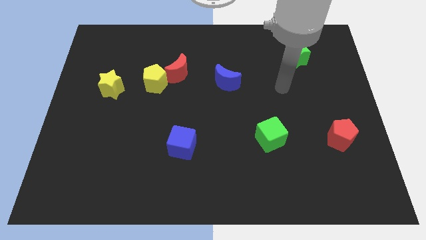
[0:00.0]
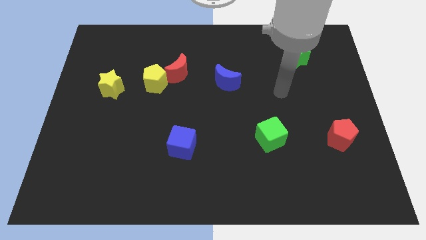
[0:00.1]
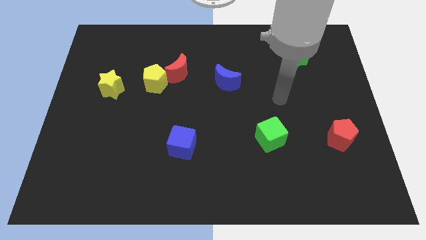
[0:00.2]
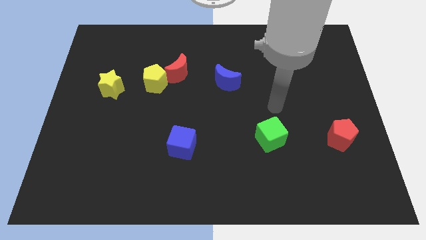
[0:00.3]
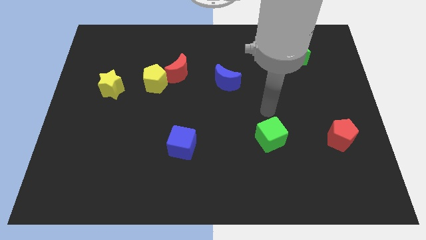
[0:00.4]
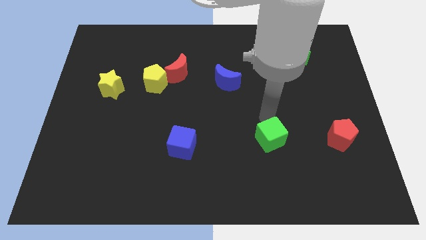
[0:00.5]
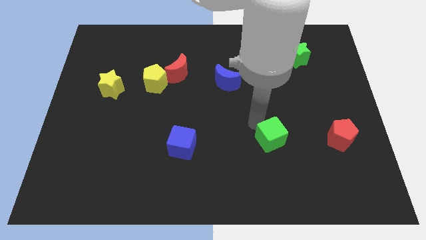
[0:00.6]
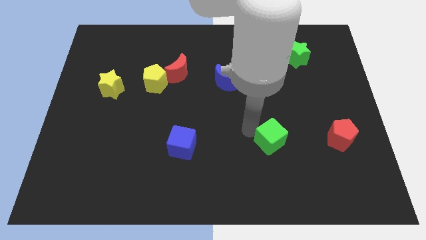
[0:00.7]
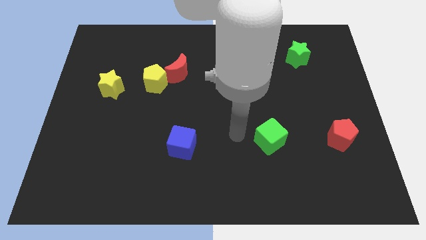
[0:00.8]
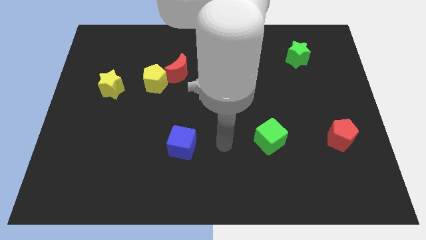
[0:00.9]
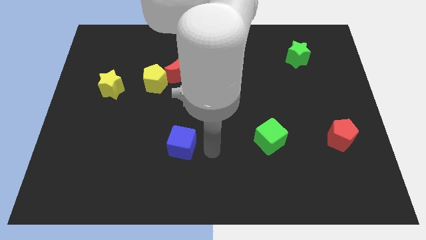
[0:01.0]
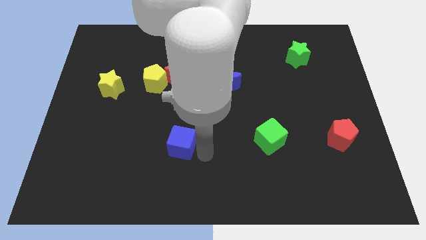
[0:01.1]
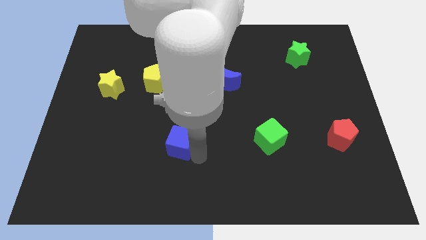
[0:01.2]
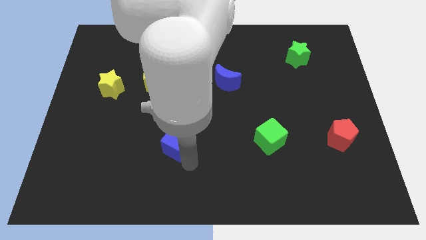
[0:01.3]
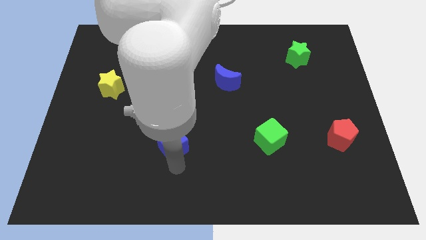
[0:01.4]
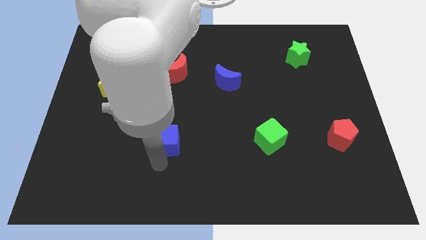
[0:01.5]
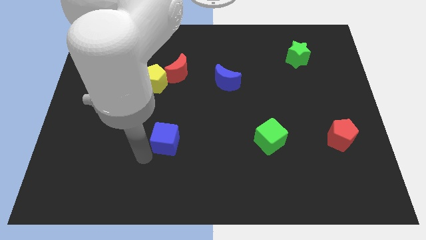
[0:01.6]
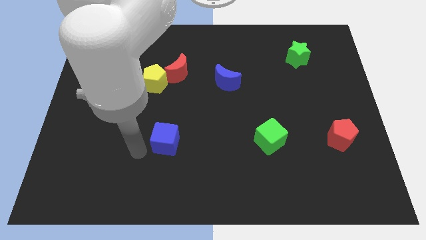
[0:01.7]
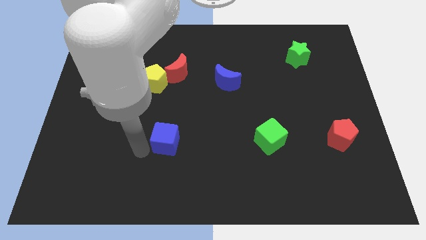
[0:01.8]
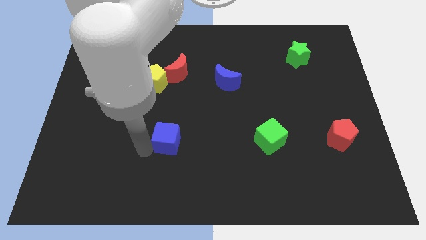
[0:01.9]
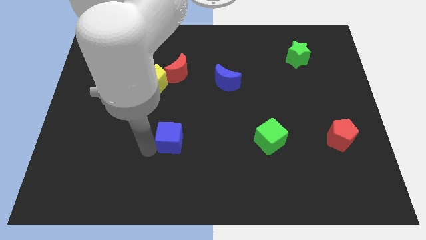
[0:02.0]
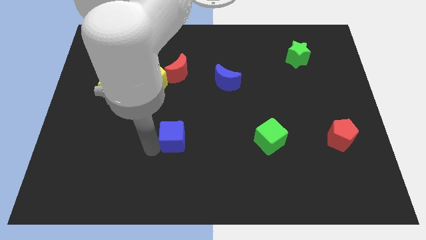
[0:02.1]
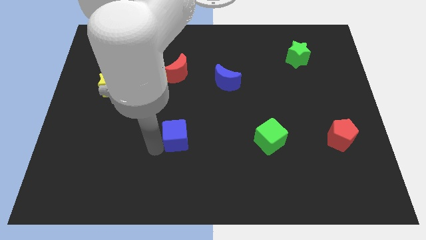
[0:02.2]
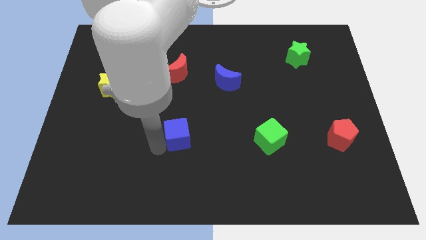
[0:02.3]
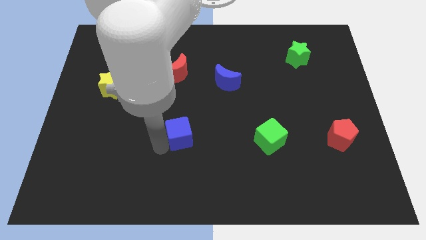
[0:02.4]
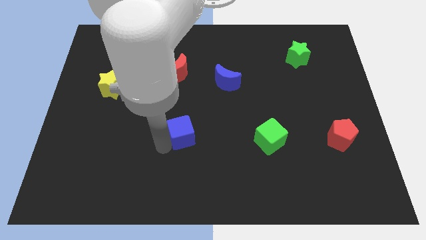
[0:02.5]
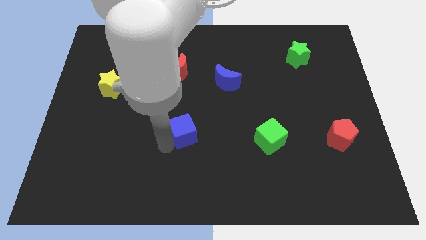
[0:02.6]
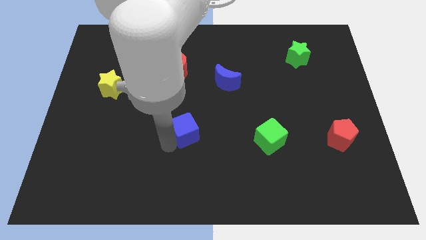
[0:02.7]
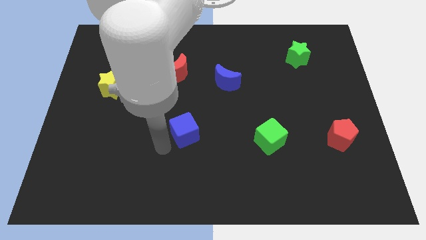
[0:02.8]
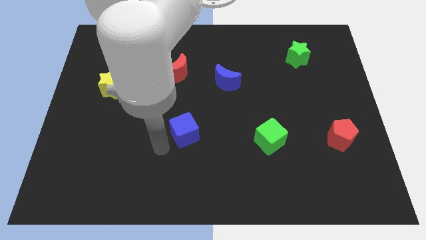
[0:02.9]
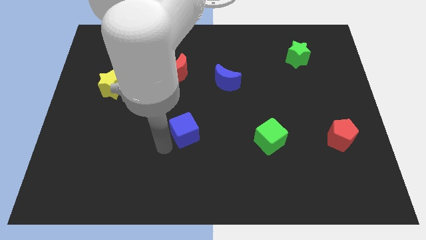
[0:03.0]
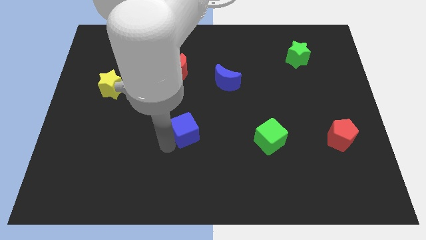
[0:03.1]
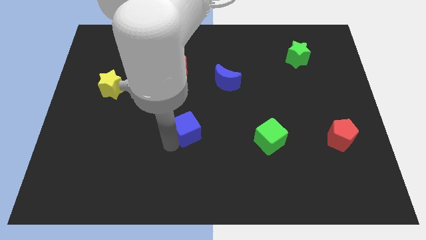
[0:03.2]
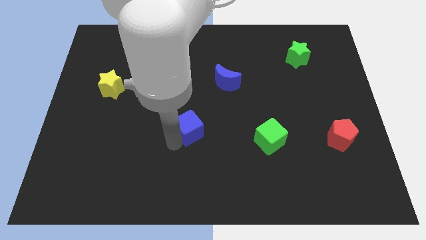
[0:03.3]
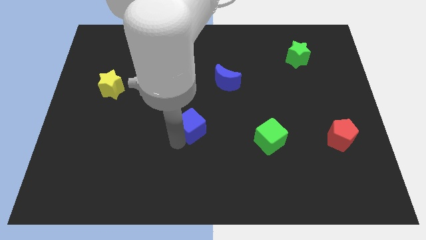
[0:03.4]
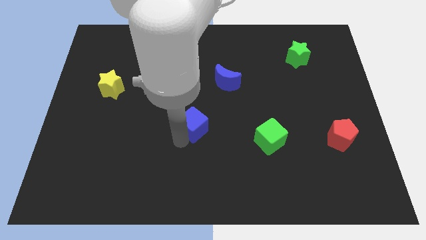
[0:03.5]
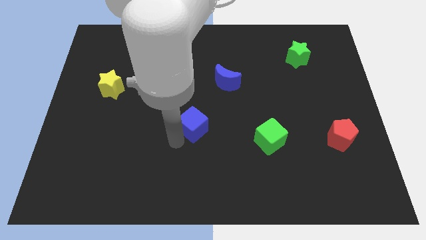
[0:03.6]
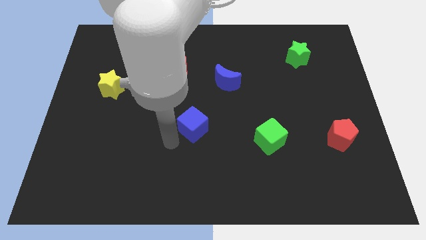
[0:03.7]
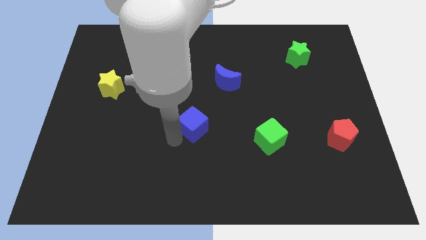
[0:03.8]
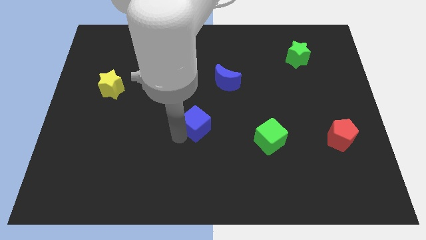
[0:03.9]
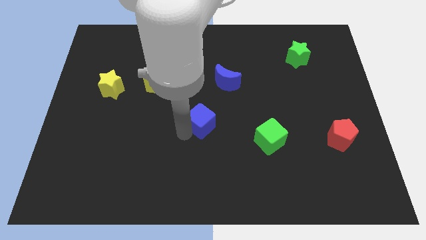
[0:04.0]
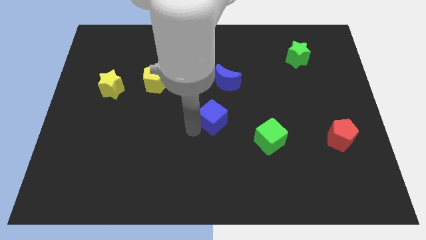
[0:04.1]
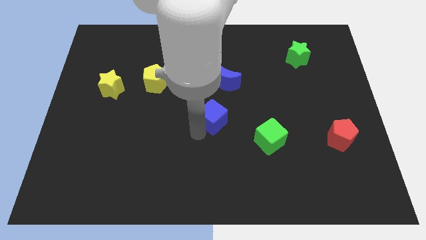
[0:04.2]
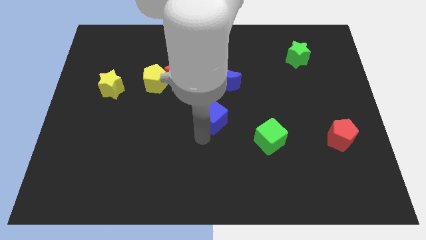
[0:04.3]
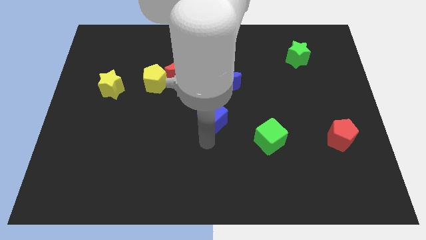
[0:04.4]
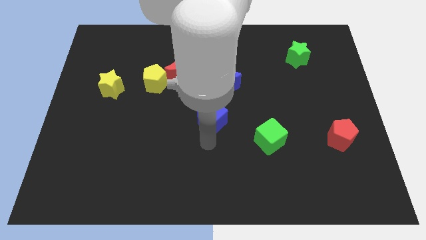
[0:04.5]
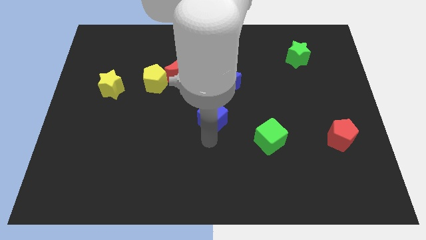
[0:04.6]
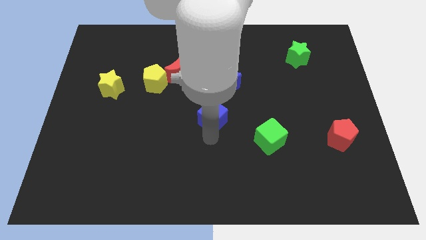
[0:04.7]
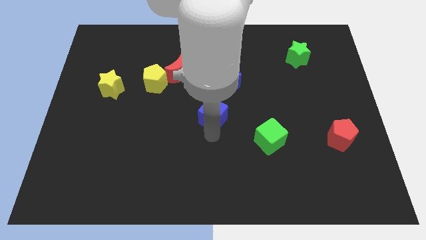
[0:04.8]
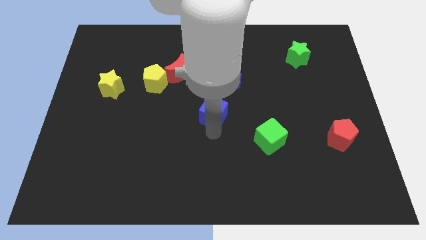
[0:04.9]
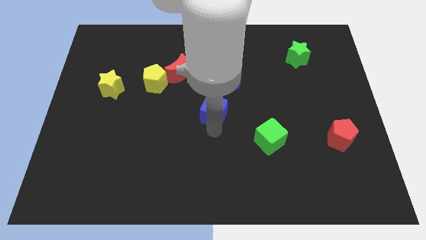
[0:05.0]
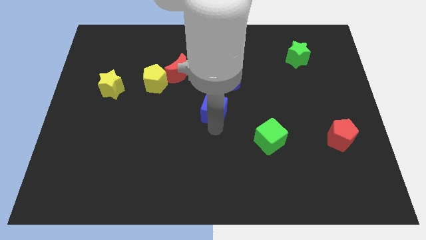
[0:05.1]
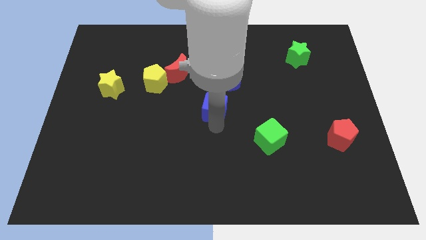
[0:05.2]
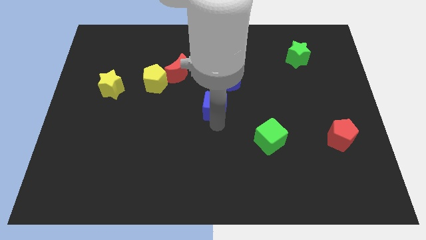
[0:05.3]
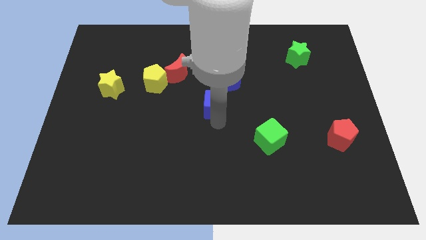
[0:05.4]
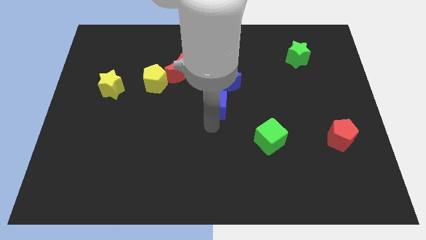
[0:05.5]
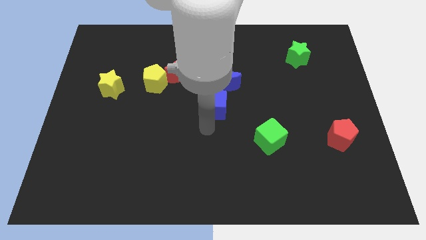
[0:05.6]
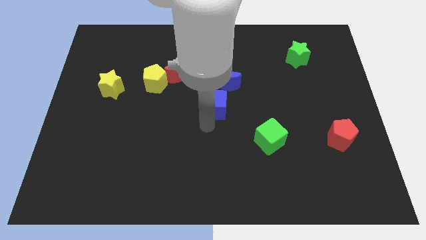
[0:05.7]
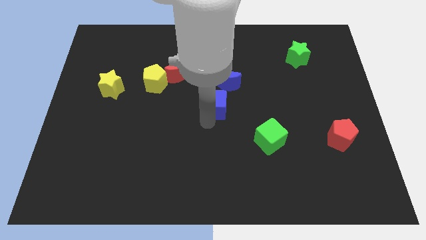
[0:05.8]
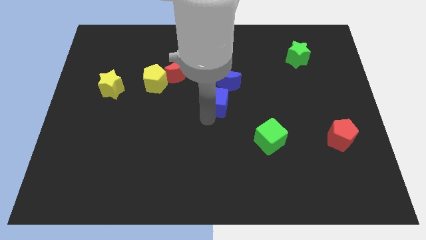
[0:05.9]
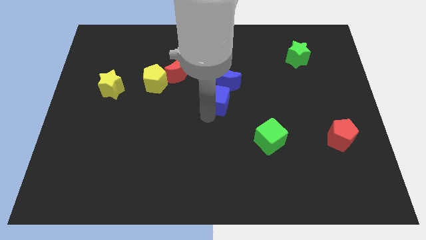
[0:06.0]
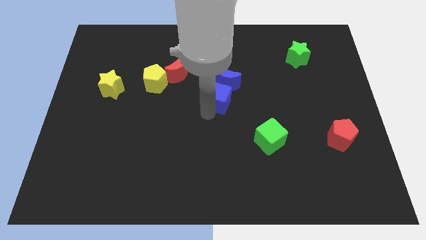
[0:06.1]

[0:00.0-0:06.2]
put the blue cube towards the blue moon

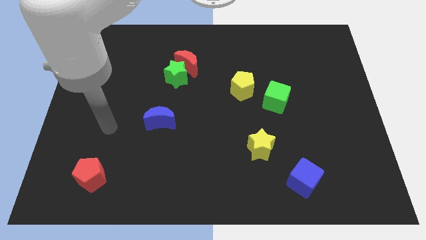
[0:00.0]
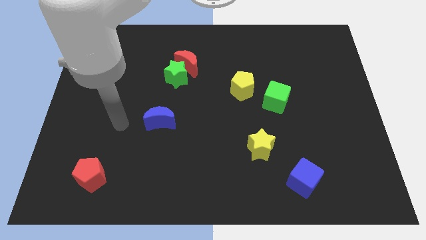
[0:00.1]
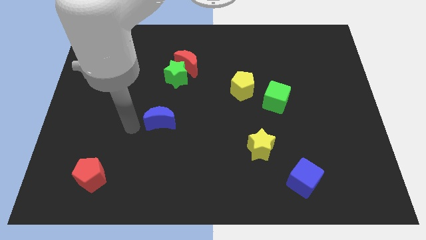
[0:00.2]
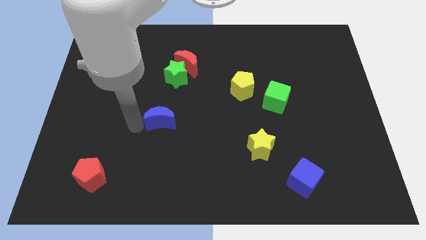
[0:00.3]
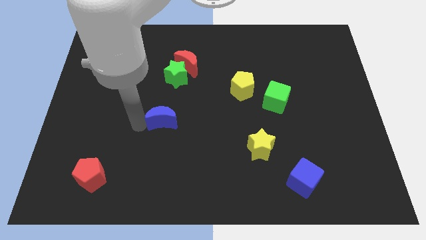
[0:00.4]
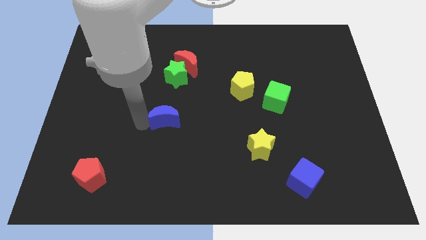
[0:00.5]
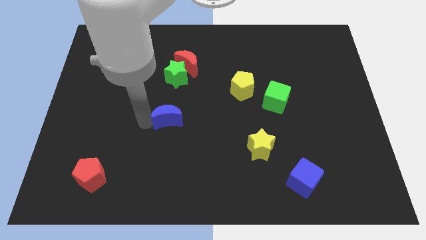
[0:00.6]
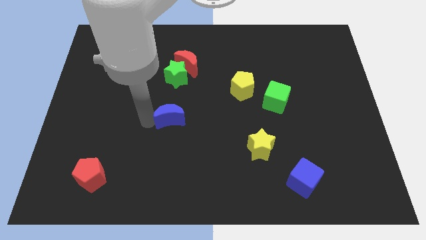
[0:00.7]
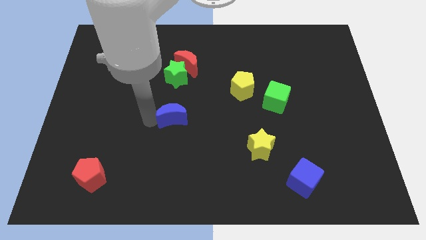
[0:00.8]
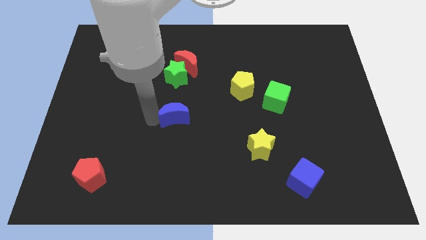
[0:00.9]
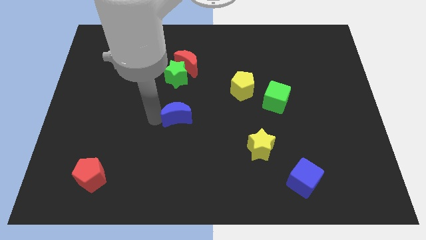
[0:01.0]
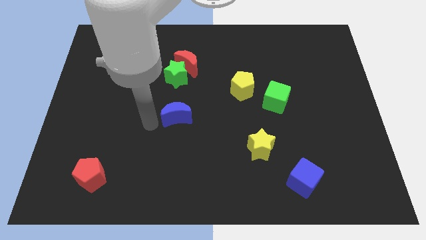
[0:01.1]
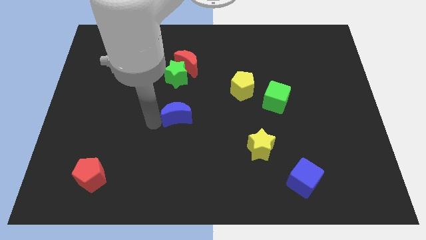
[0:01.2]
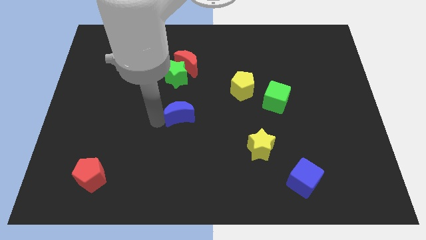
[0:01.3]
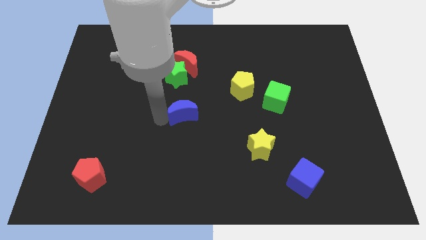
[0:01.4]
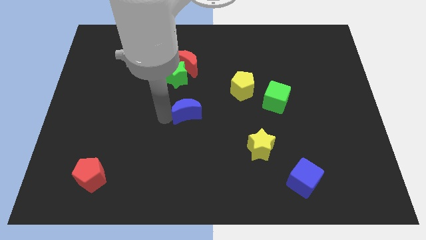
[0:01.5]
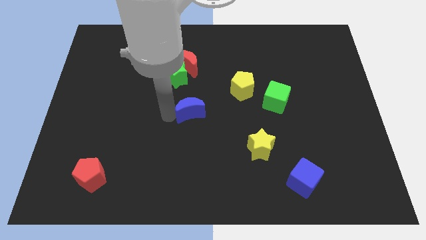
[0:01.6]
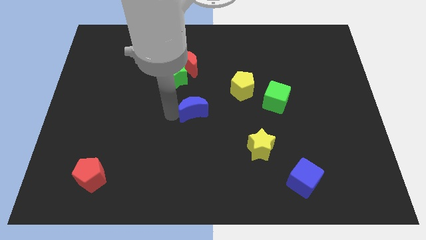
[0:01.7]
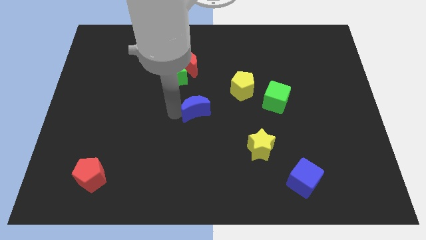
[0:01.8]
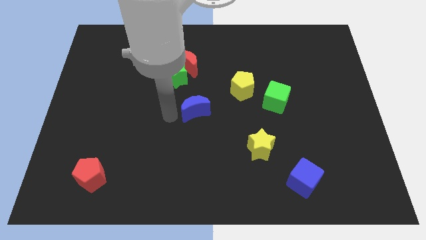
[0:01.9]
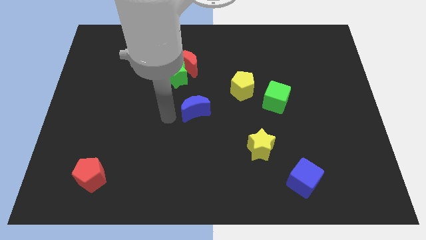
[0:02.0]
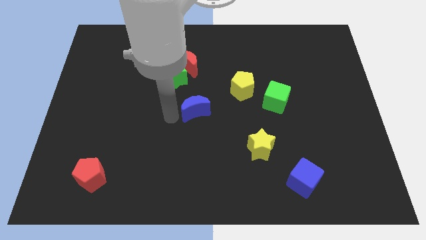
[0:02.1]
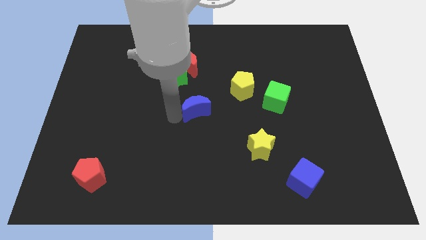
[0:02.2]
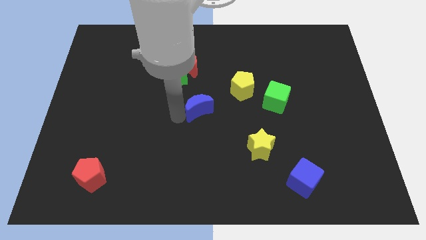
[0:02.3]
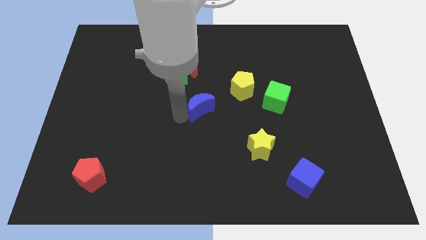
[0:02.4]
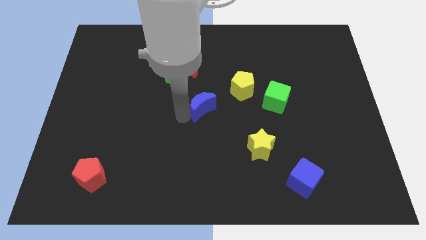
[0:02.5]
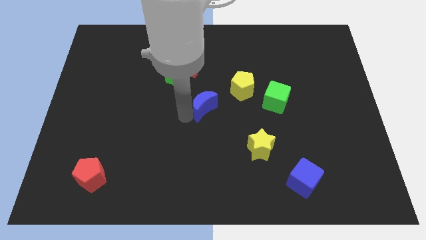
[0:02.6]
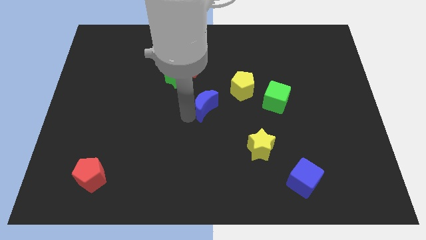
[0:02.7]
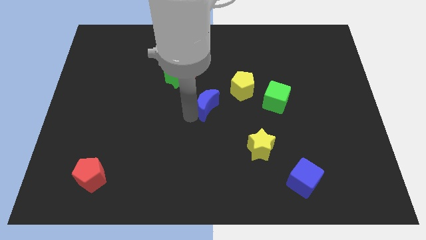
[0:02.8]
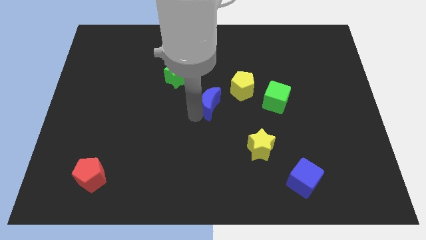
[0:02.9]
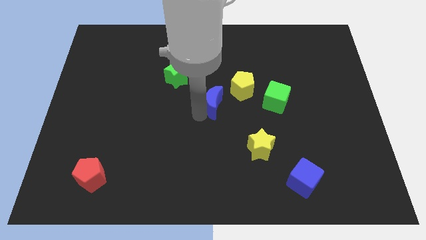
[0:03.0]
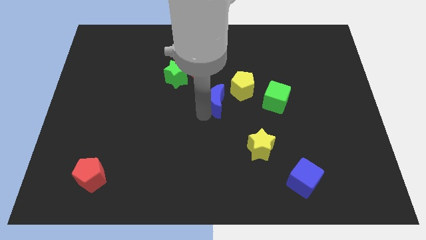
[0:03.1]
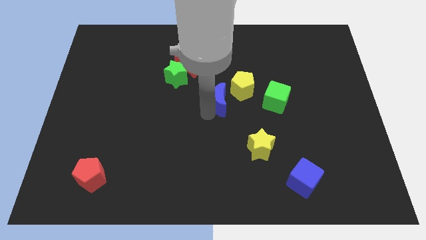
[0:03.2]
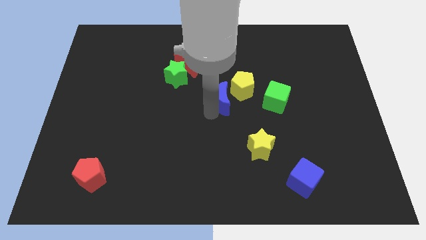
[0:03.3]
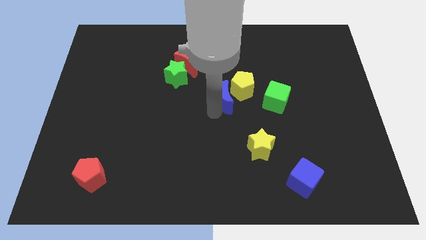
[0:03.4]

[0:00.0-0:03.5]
move the blue moon towards the yellow pentagon
